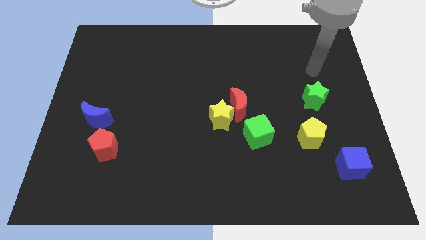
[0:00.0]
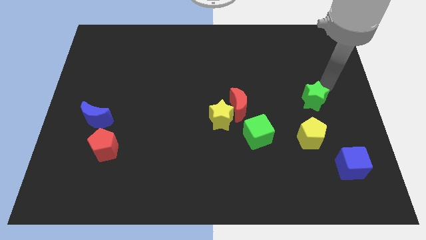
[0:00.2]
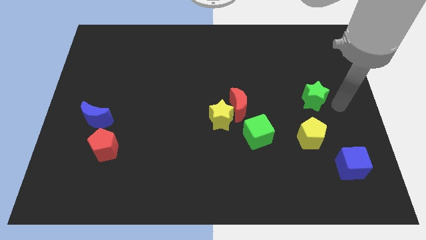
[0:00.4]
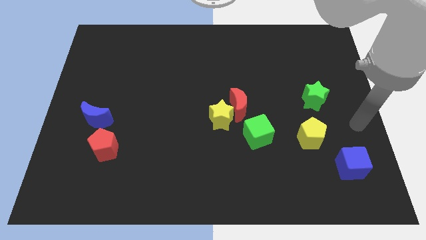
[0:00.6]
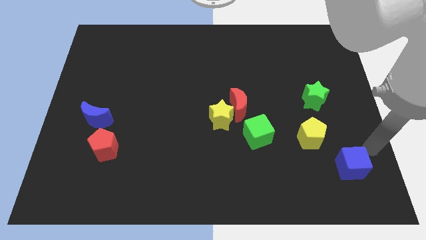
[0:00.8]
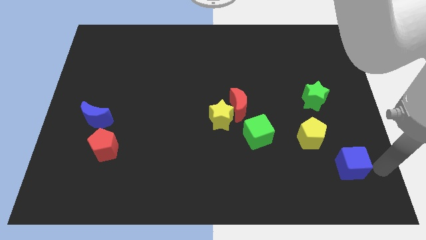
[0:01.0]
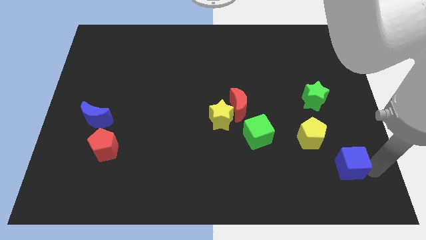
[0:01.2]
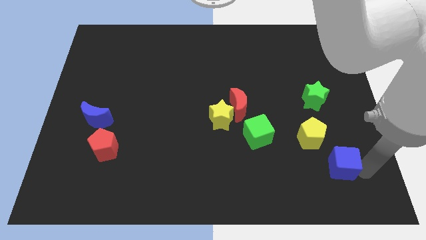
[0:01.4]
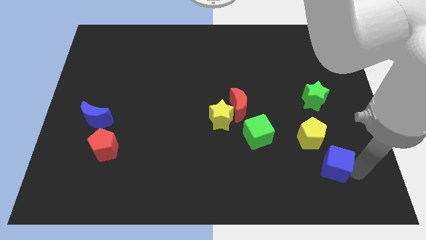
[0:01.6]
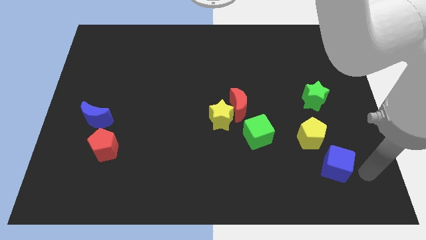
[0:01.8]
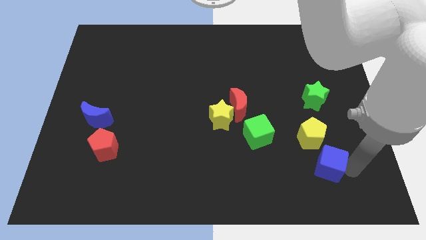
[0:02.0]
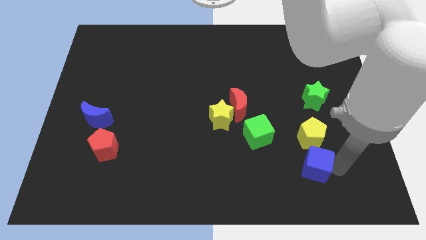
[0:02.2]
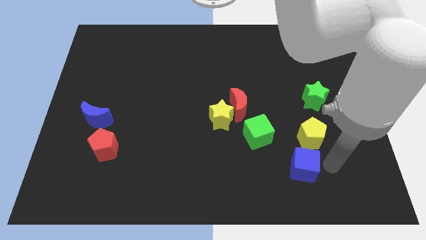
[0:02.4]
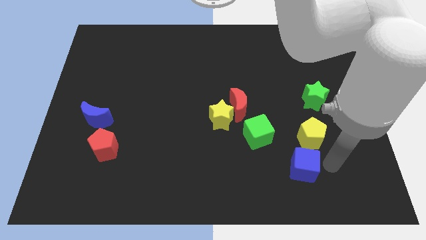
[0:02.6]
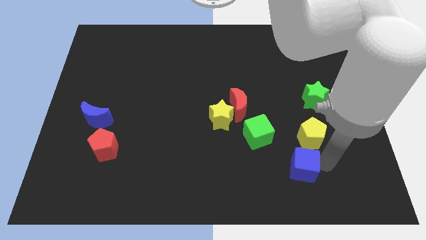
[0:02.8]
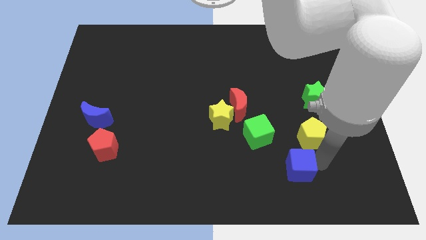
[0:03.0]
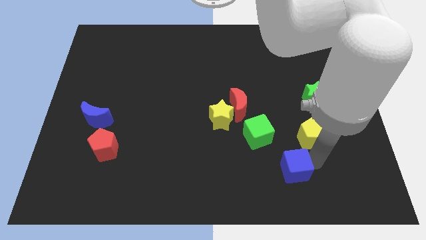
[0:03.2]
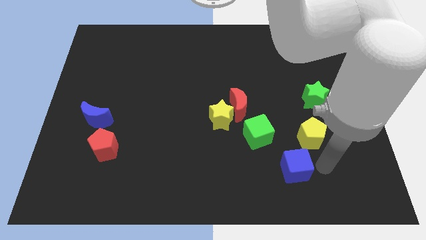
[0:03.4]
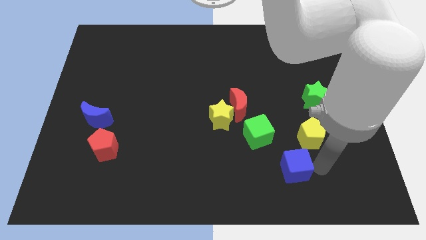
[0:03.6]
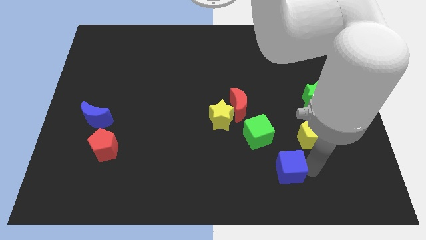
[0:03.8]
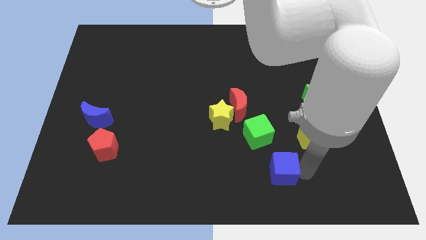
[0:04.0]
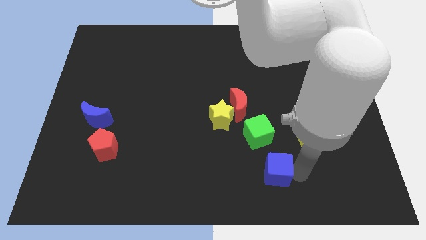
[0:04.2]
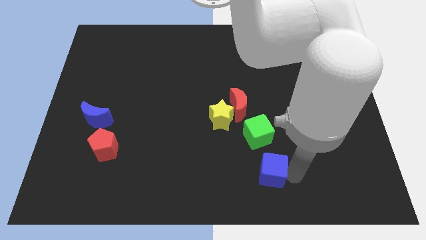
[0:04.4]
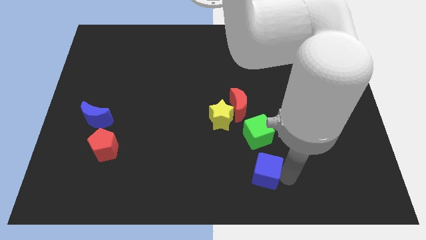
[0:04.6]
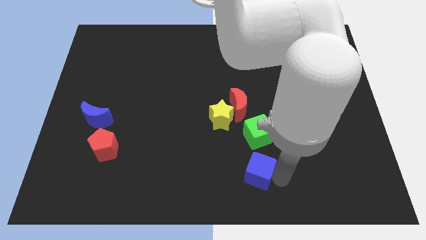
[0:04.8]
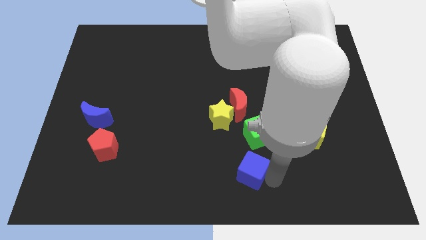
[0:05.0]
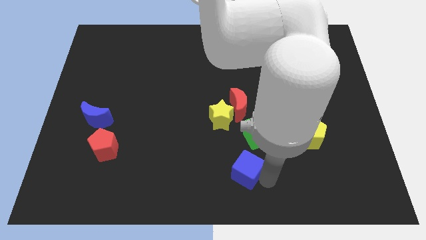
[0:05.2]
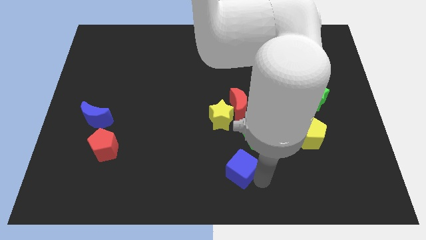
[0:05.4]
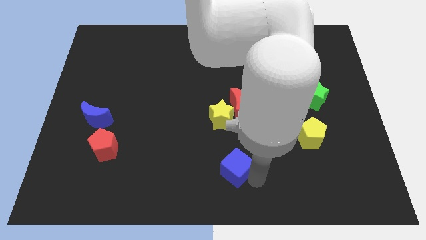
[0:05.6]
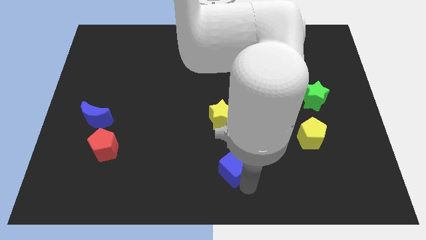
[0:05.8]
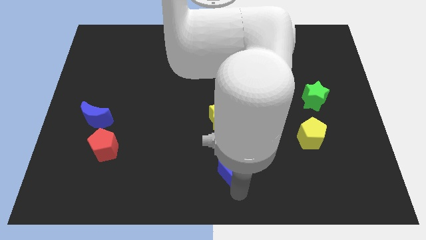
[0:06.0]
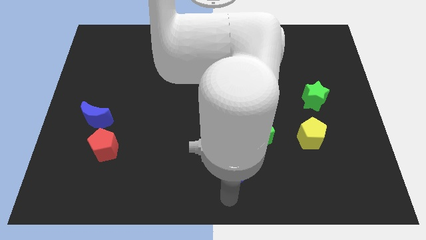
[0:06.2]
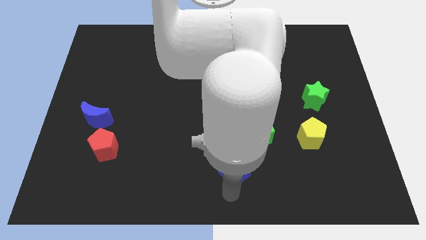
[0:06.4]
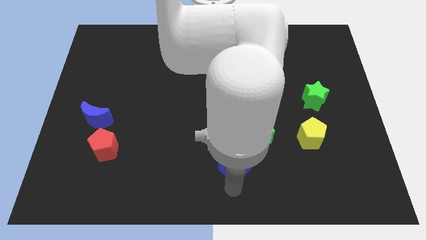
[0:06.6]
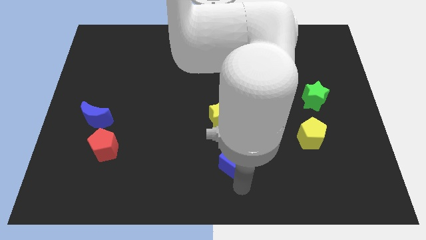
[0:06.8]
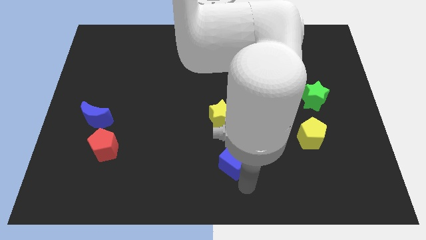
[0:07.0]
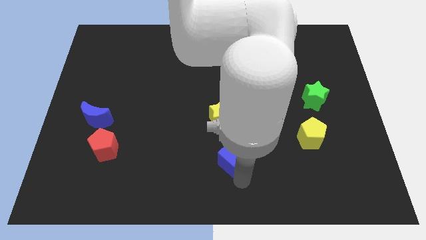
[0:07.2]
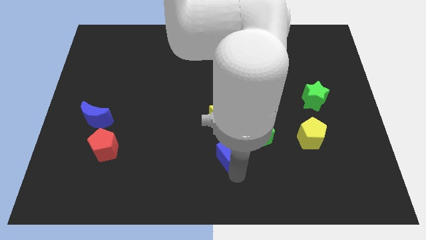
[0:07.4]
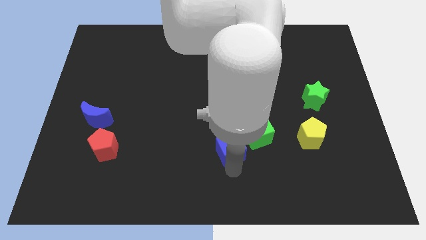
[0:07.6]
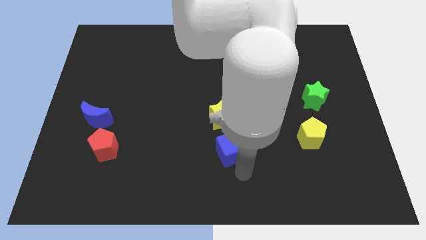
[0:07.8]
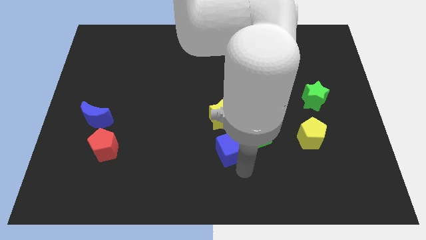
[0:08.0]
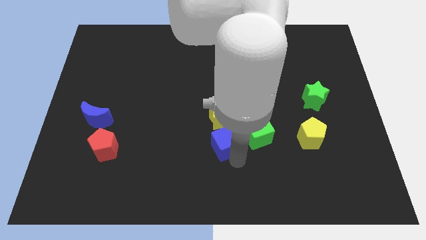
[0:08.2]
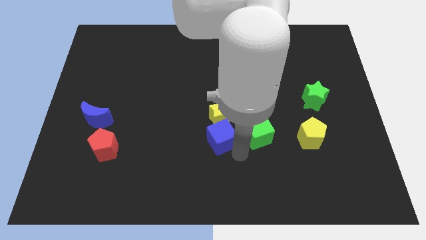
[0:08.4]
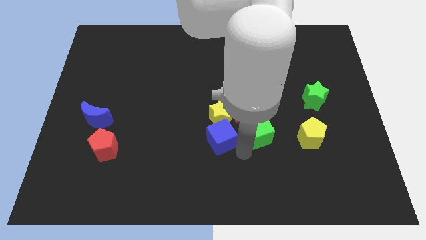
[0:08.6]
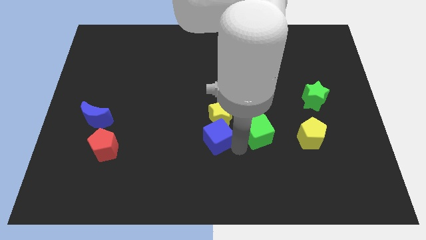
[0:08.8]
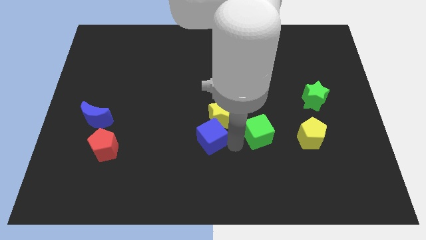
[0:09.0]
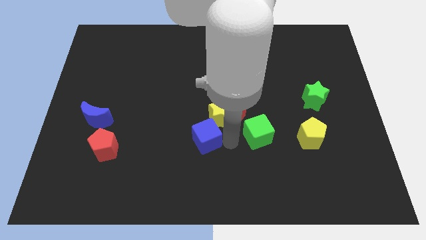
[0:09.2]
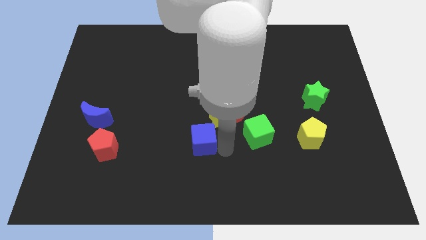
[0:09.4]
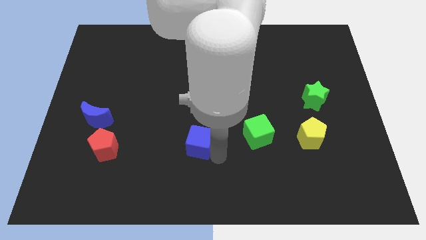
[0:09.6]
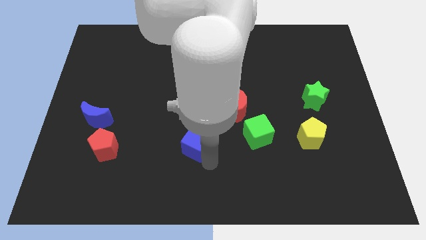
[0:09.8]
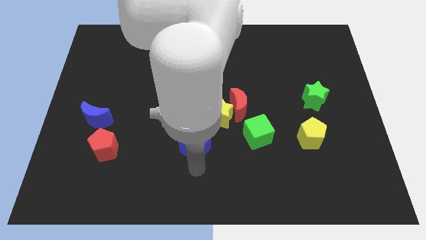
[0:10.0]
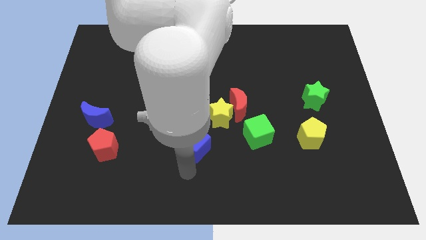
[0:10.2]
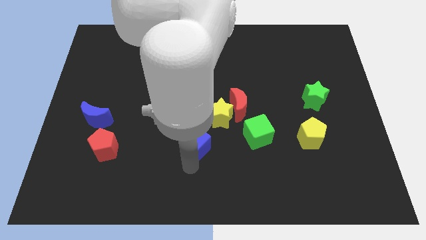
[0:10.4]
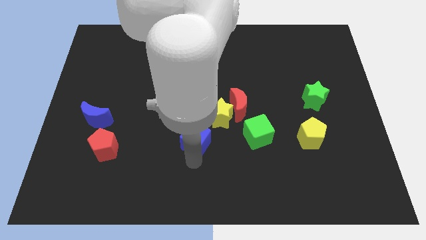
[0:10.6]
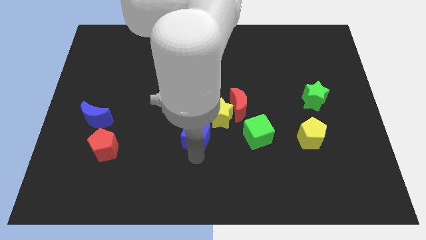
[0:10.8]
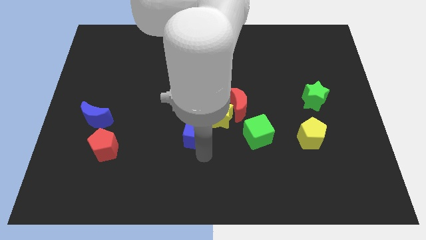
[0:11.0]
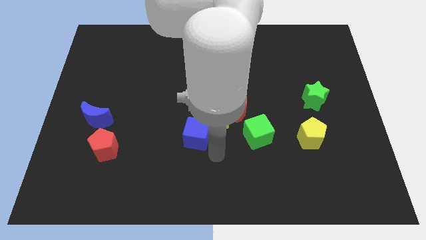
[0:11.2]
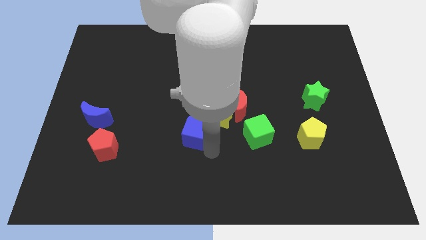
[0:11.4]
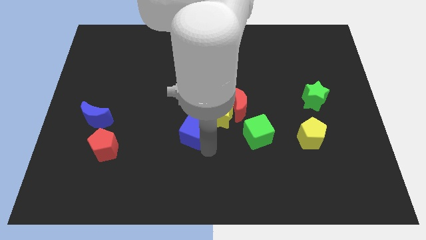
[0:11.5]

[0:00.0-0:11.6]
slide the blue cube left of the yellow star

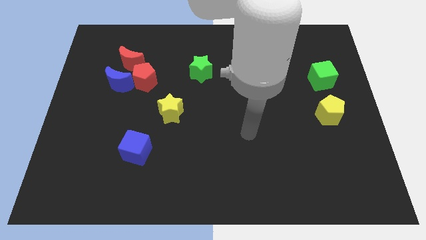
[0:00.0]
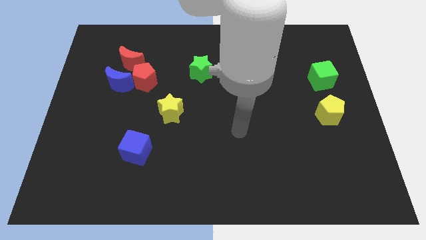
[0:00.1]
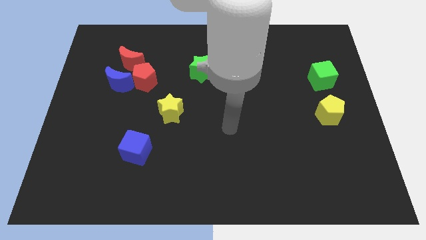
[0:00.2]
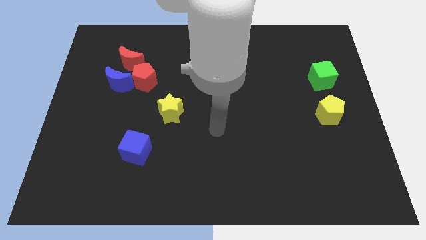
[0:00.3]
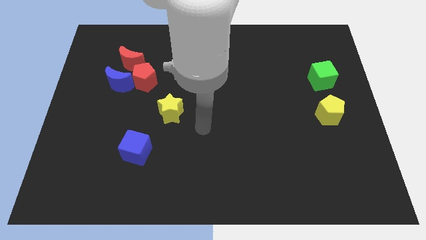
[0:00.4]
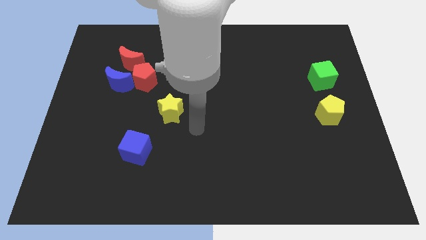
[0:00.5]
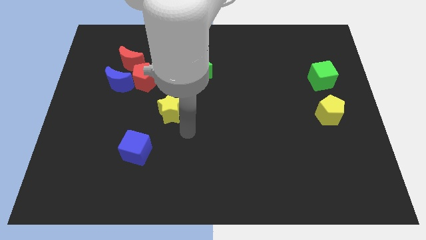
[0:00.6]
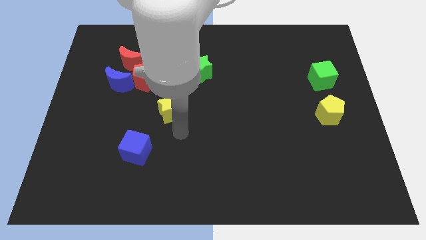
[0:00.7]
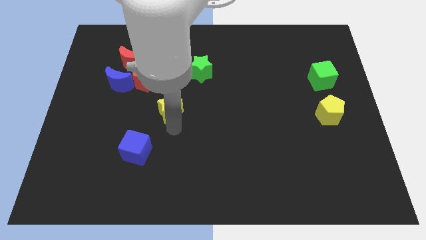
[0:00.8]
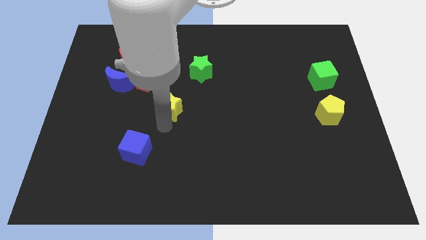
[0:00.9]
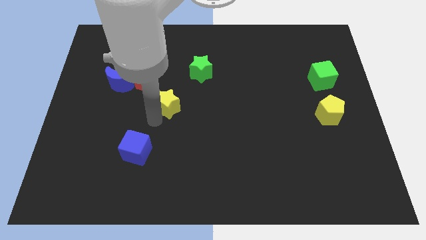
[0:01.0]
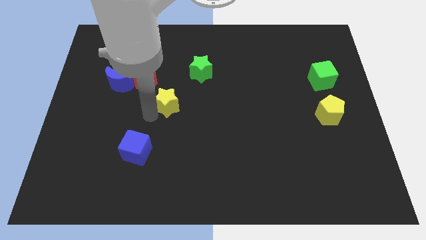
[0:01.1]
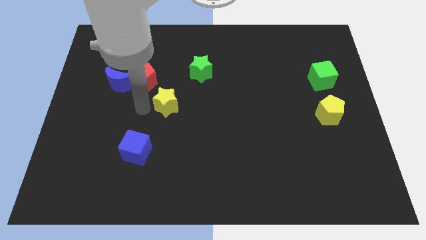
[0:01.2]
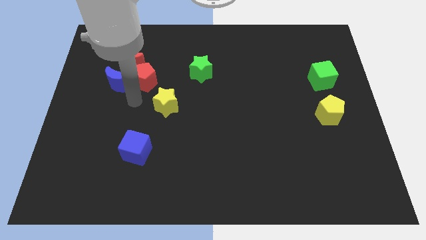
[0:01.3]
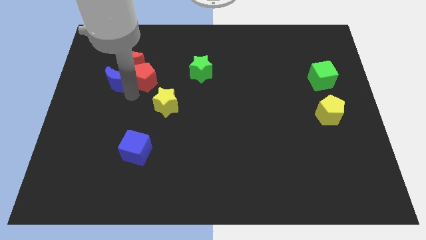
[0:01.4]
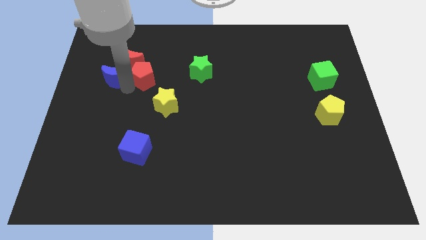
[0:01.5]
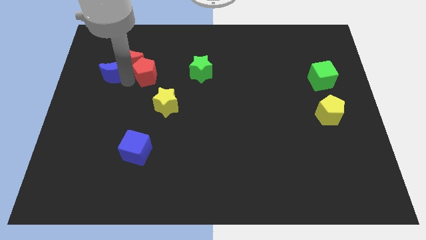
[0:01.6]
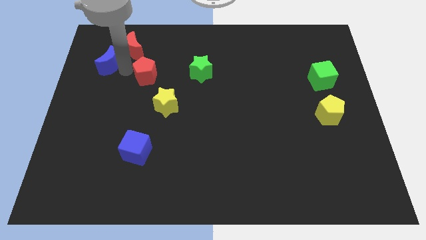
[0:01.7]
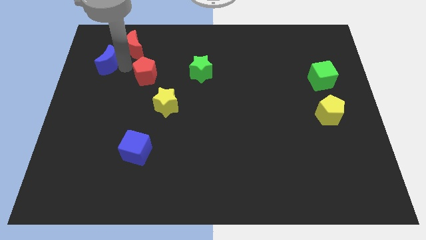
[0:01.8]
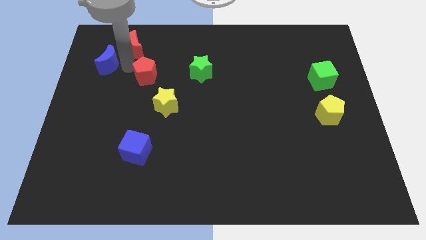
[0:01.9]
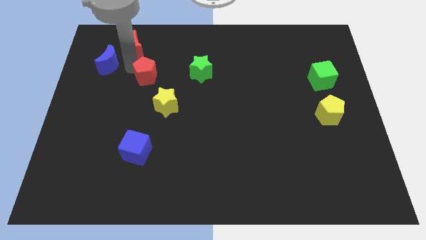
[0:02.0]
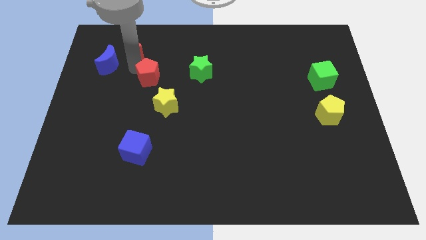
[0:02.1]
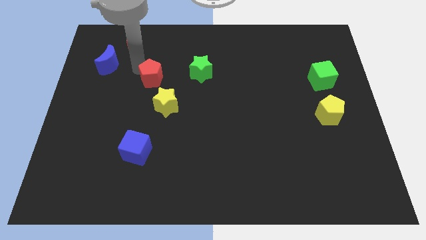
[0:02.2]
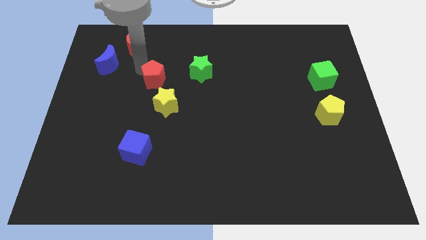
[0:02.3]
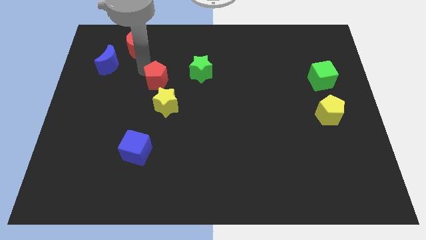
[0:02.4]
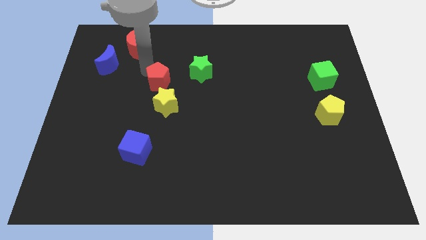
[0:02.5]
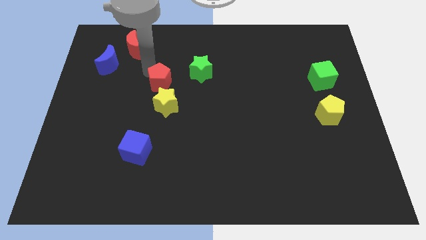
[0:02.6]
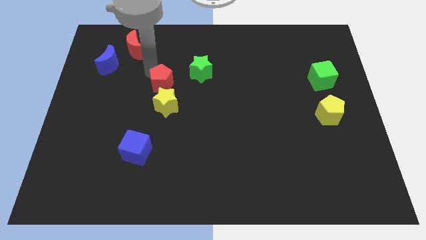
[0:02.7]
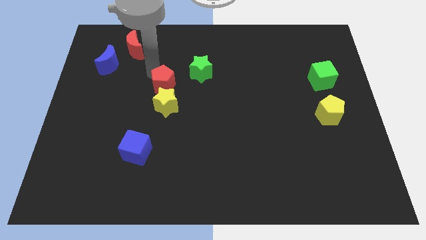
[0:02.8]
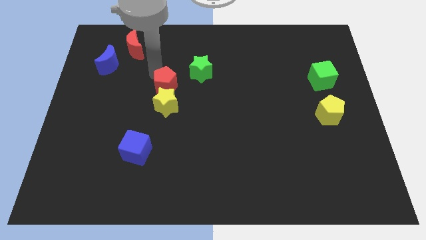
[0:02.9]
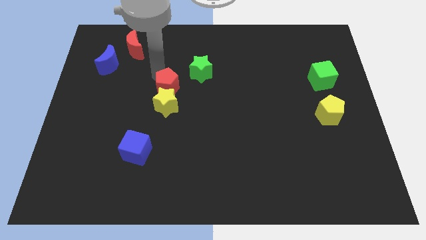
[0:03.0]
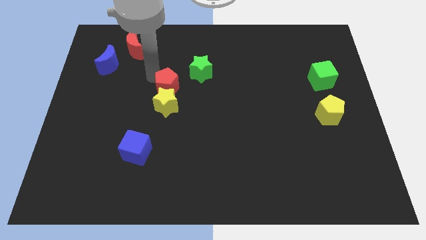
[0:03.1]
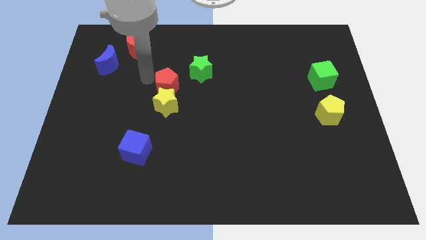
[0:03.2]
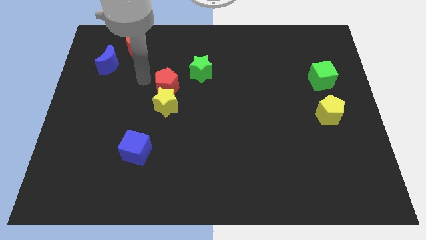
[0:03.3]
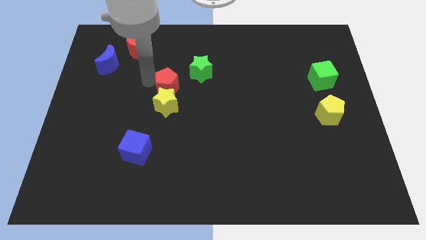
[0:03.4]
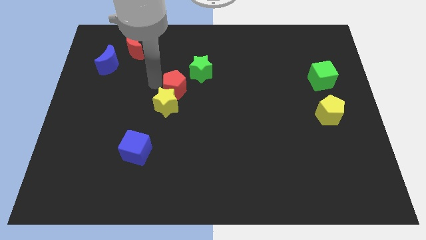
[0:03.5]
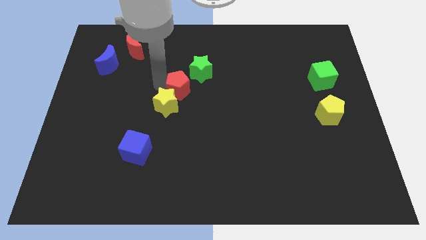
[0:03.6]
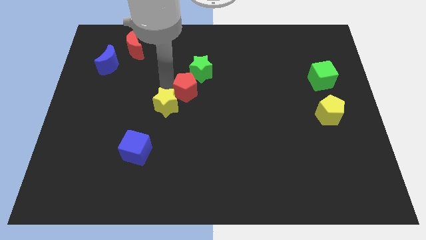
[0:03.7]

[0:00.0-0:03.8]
put the red pentagon right of the yellow star
